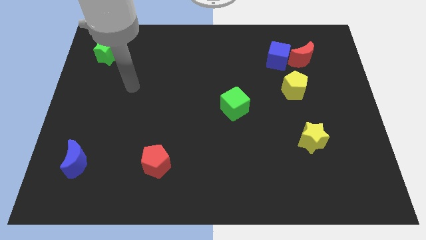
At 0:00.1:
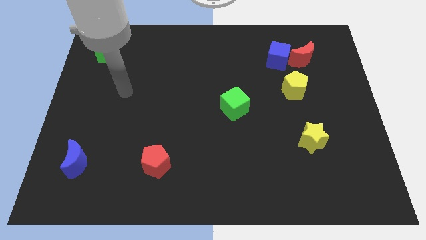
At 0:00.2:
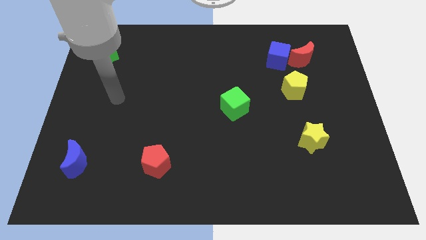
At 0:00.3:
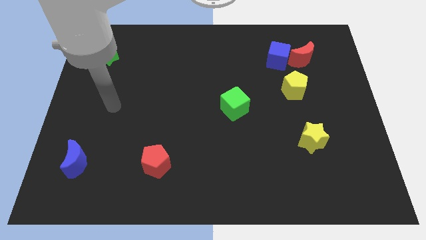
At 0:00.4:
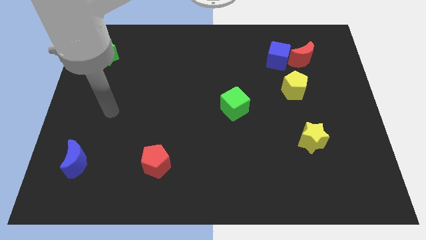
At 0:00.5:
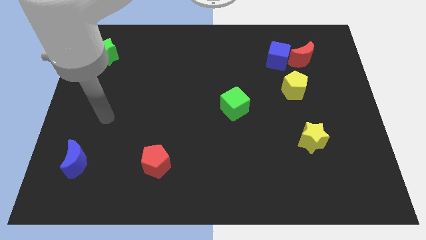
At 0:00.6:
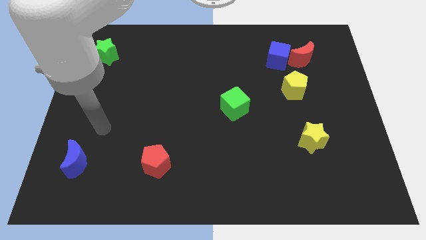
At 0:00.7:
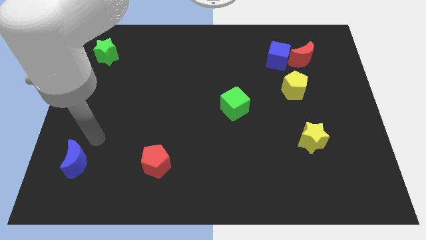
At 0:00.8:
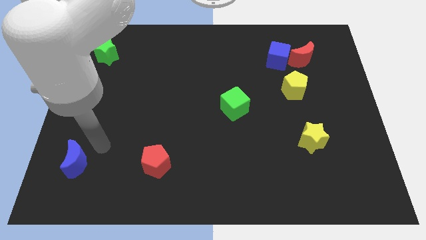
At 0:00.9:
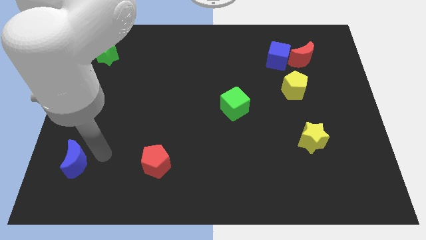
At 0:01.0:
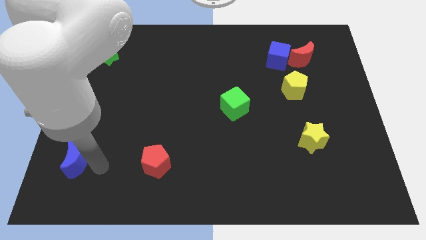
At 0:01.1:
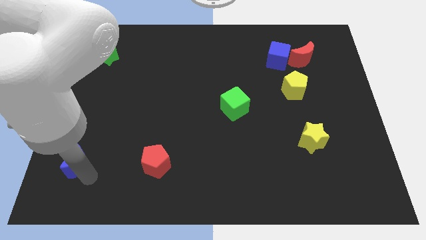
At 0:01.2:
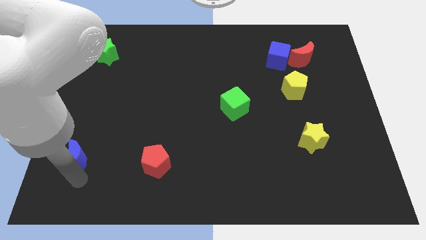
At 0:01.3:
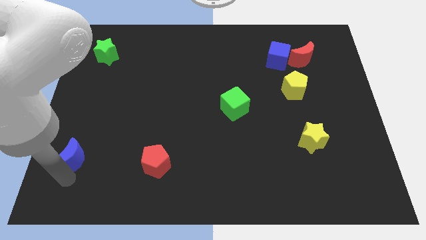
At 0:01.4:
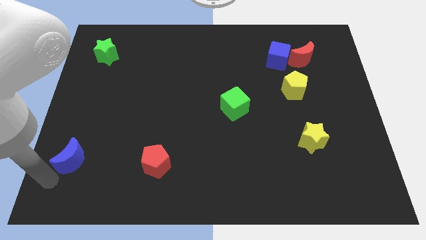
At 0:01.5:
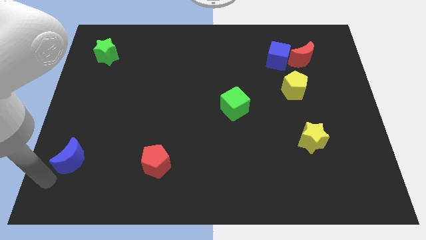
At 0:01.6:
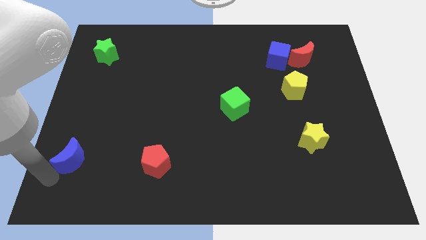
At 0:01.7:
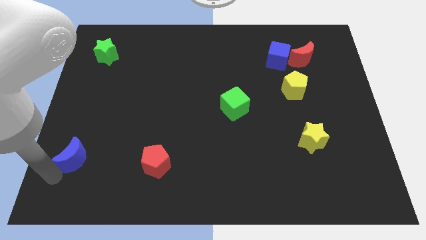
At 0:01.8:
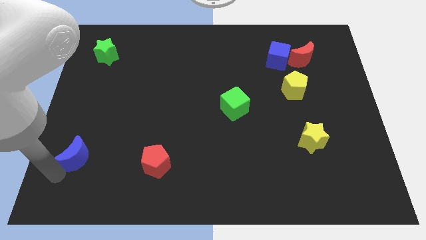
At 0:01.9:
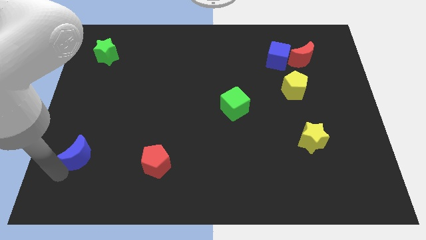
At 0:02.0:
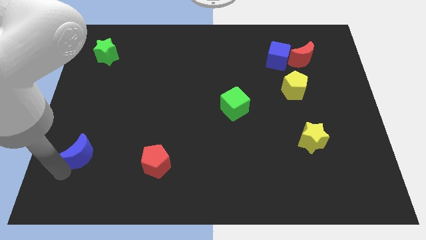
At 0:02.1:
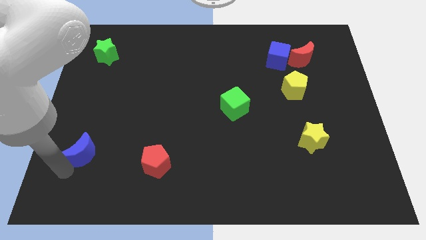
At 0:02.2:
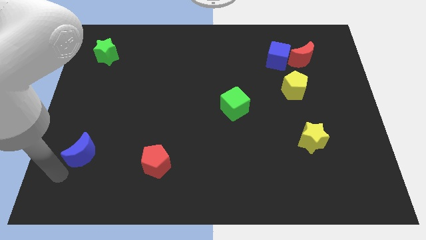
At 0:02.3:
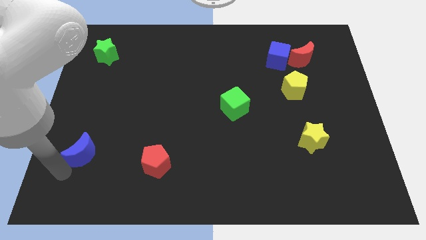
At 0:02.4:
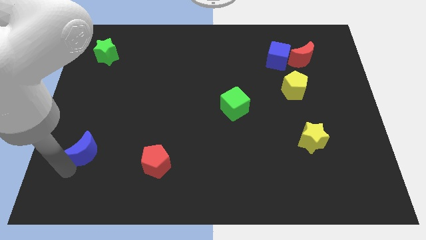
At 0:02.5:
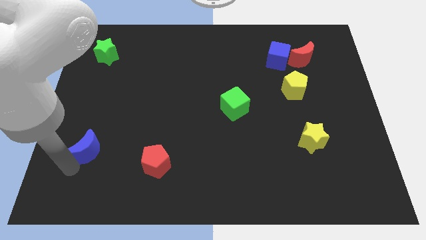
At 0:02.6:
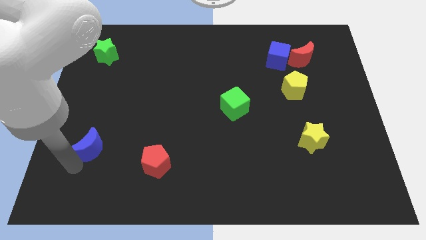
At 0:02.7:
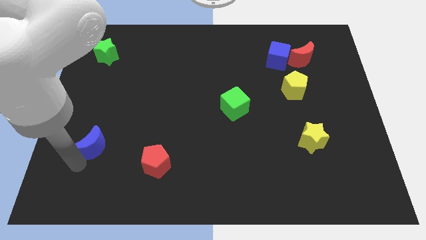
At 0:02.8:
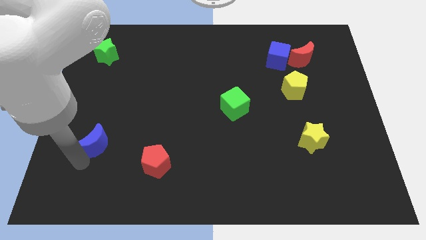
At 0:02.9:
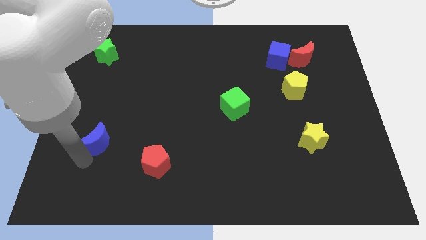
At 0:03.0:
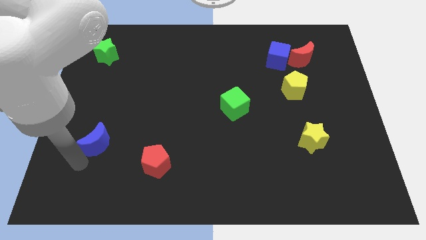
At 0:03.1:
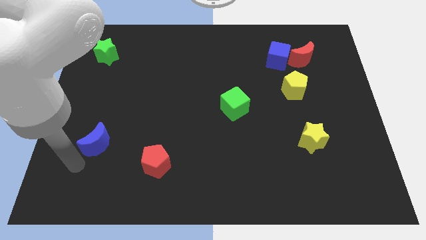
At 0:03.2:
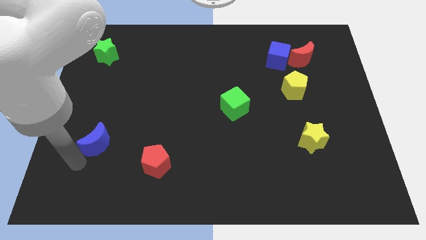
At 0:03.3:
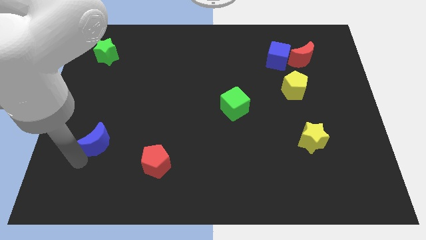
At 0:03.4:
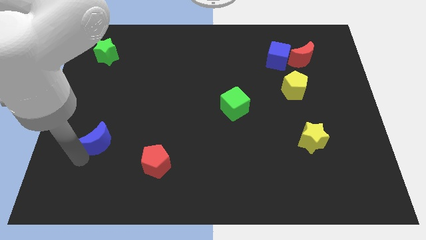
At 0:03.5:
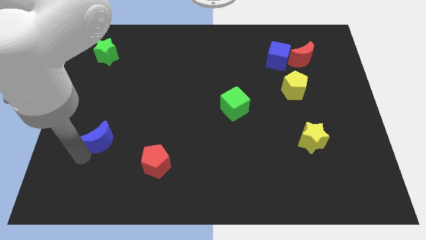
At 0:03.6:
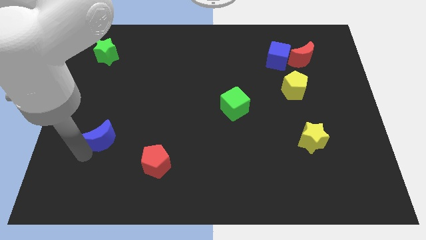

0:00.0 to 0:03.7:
move the blue moon a little upwards and to the right diagonally

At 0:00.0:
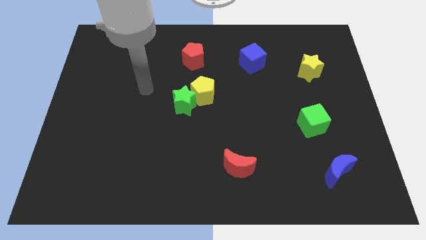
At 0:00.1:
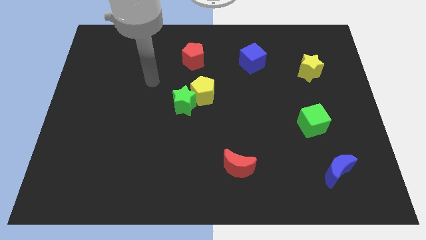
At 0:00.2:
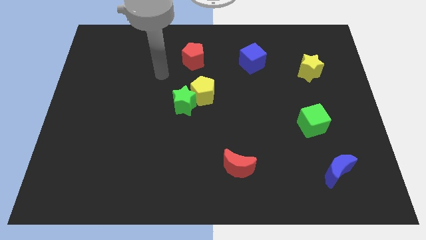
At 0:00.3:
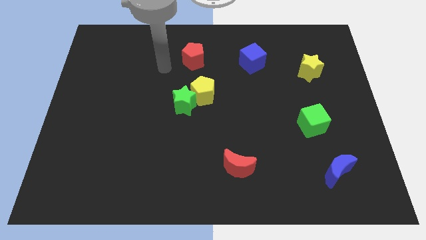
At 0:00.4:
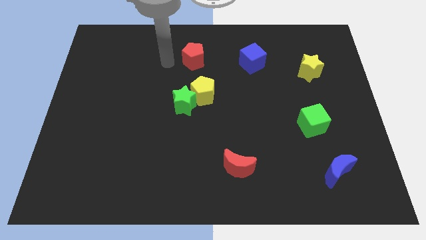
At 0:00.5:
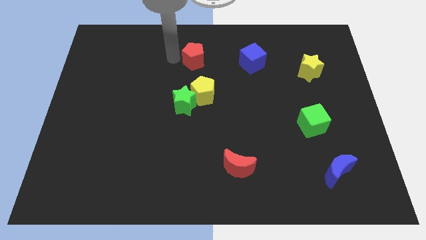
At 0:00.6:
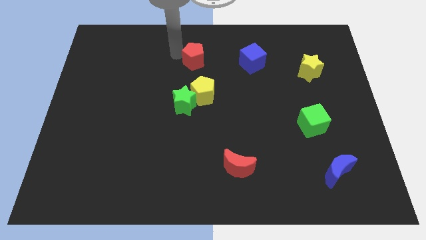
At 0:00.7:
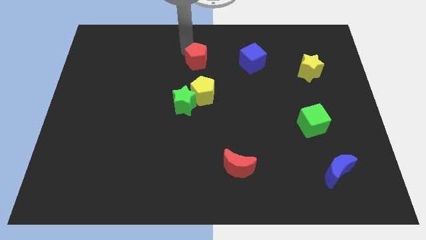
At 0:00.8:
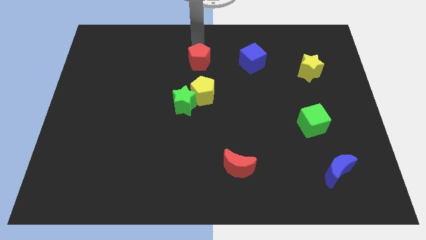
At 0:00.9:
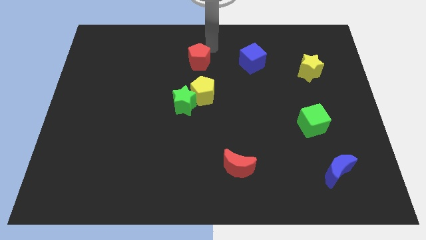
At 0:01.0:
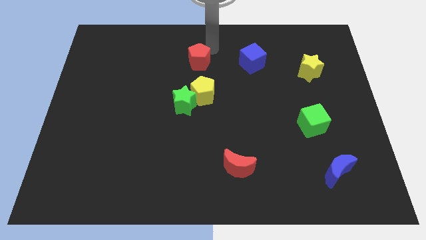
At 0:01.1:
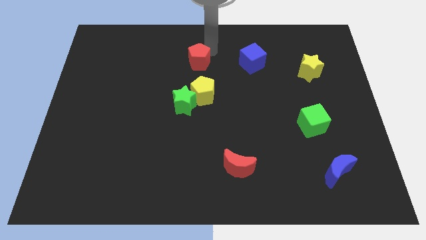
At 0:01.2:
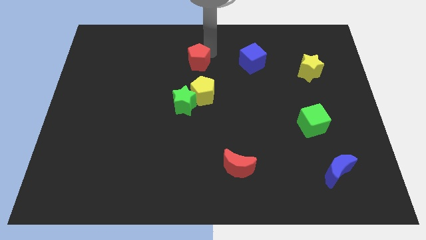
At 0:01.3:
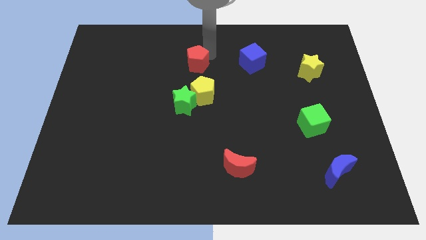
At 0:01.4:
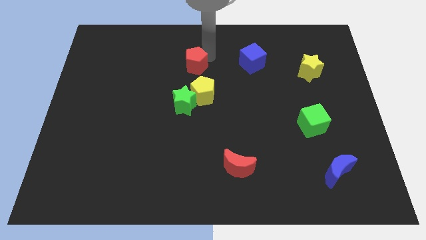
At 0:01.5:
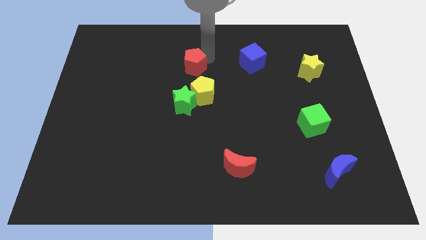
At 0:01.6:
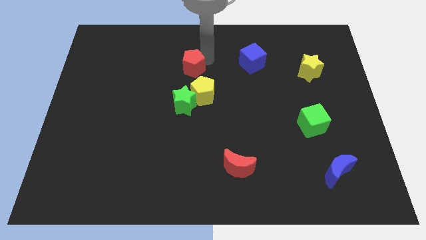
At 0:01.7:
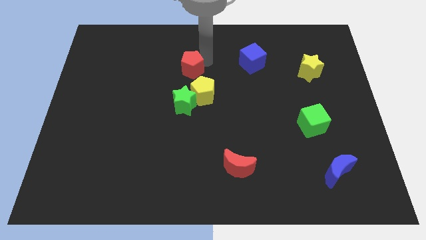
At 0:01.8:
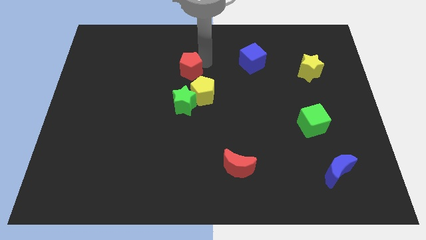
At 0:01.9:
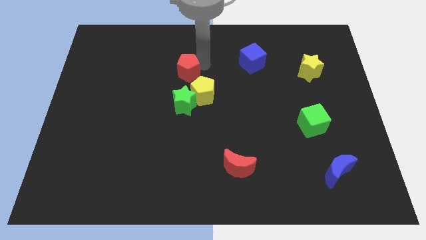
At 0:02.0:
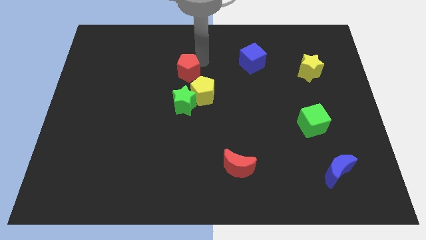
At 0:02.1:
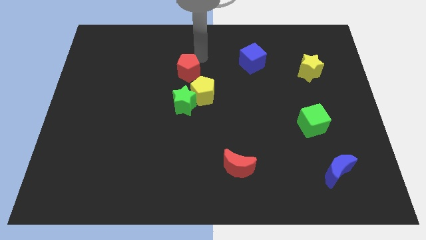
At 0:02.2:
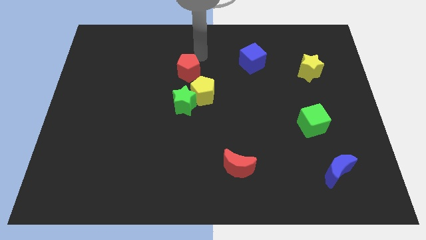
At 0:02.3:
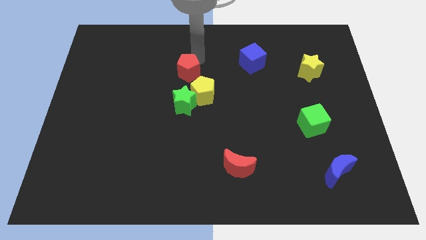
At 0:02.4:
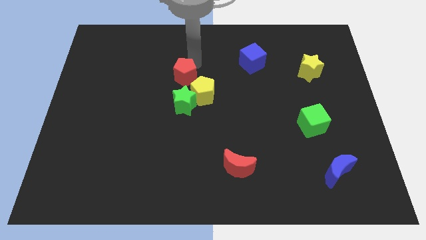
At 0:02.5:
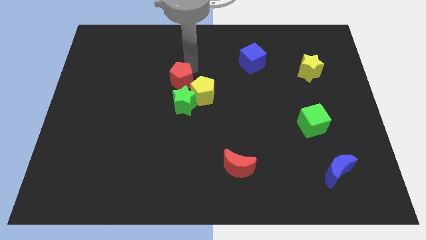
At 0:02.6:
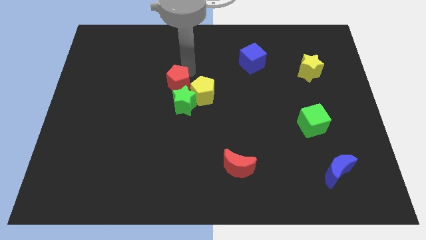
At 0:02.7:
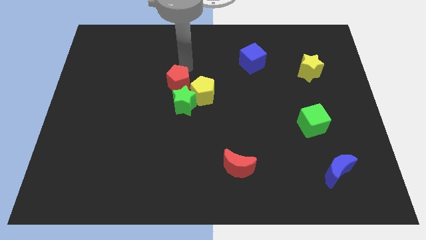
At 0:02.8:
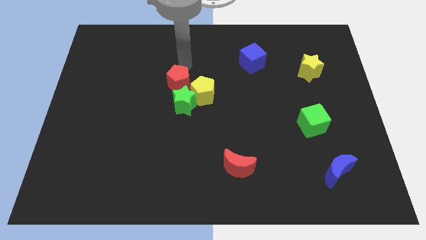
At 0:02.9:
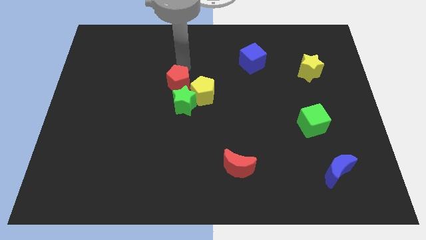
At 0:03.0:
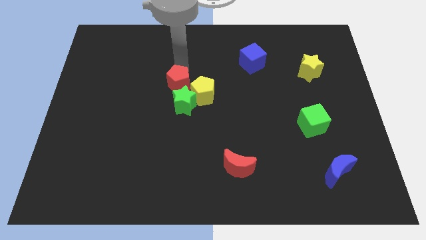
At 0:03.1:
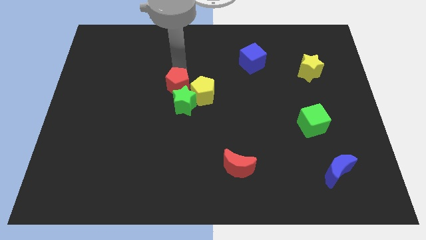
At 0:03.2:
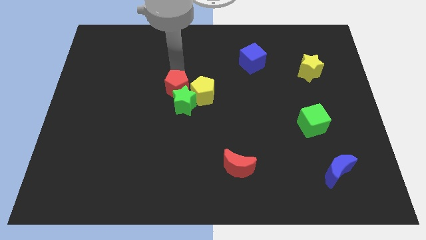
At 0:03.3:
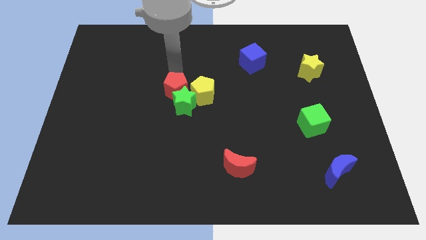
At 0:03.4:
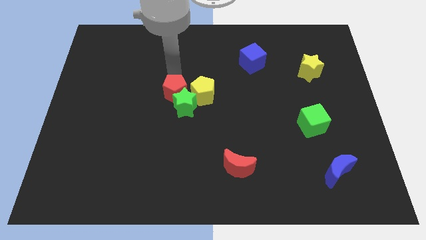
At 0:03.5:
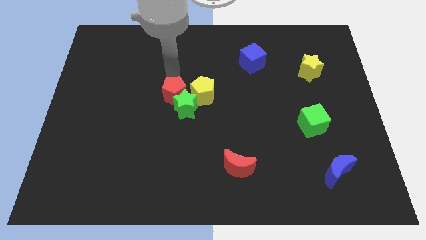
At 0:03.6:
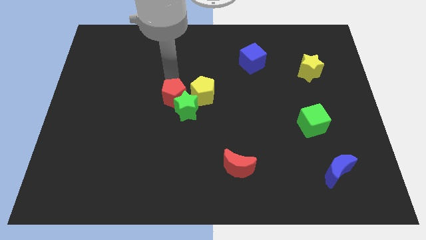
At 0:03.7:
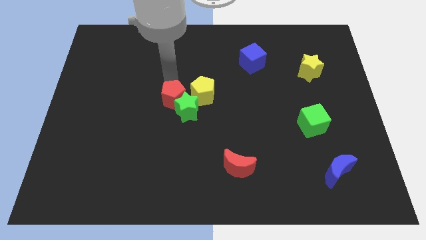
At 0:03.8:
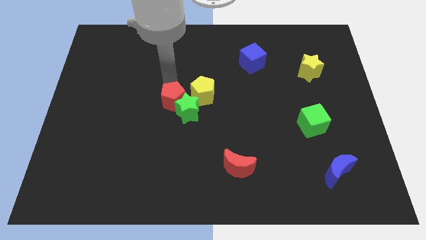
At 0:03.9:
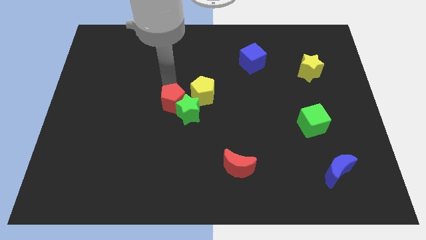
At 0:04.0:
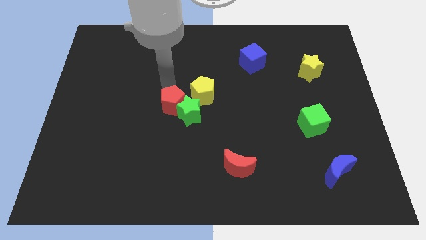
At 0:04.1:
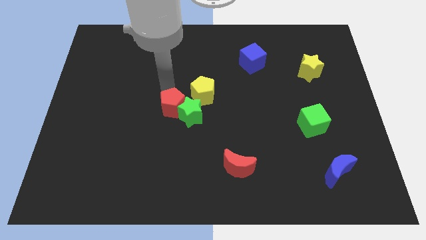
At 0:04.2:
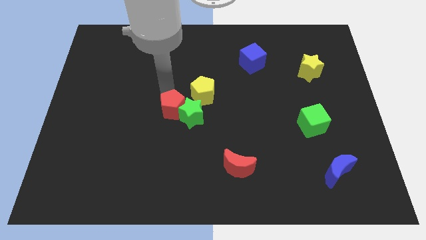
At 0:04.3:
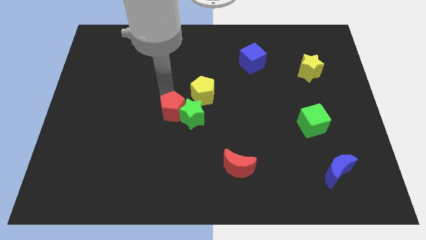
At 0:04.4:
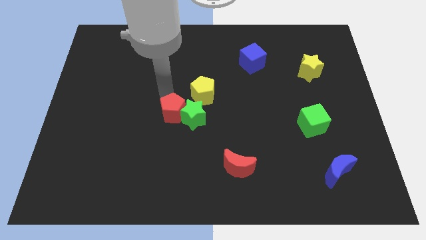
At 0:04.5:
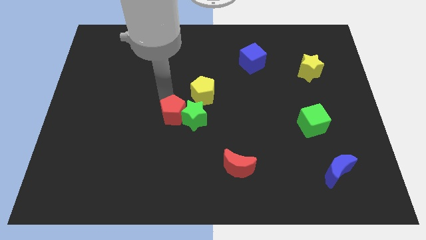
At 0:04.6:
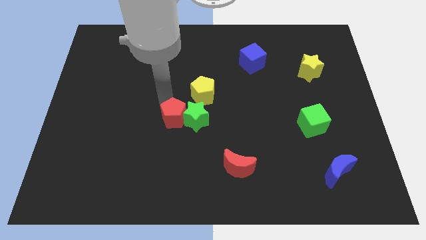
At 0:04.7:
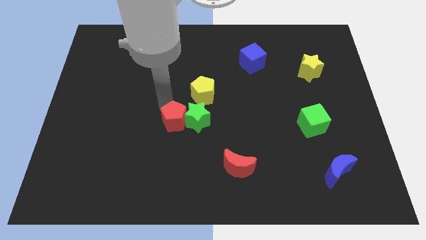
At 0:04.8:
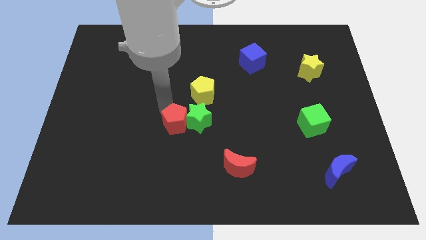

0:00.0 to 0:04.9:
slide the red pentagon downwards
